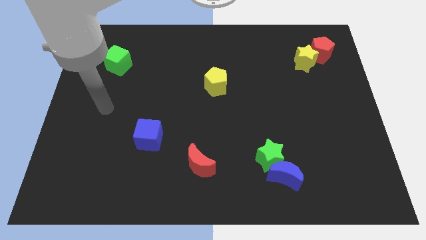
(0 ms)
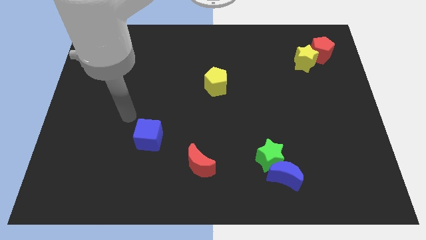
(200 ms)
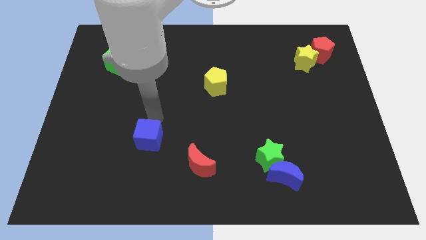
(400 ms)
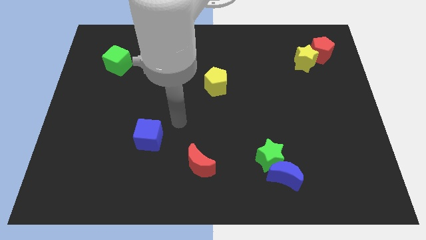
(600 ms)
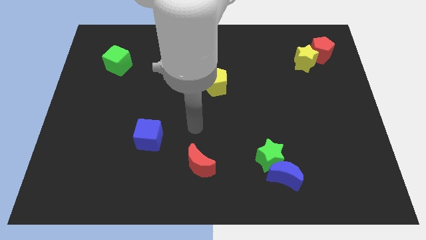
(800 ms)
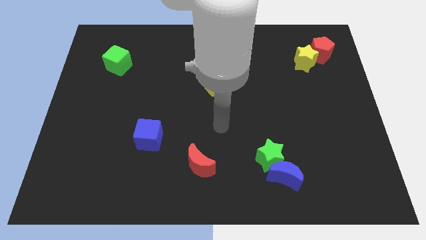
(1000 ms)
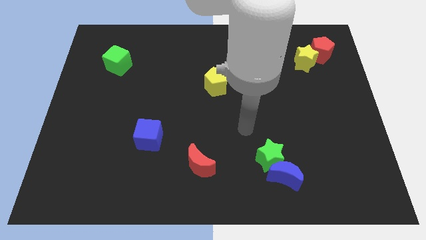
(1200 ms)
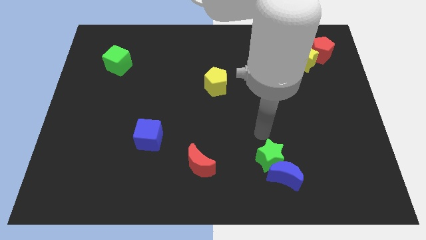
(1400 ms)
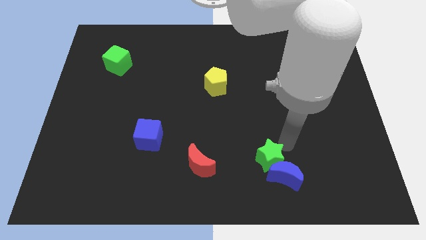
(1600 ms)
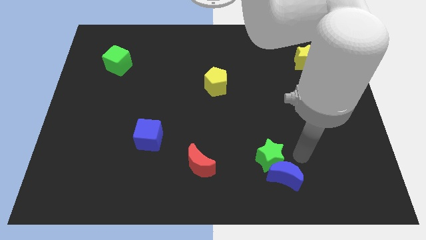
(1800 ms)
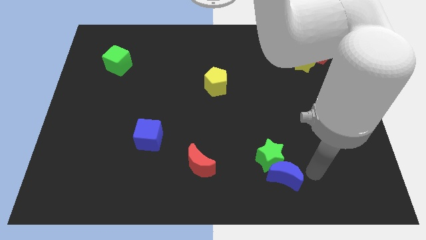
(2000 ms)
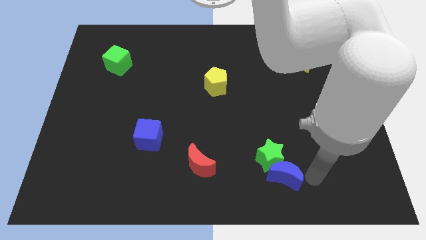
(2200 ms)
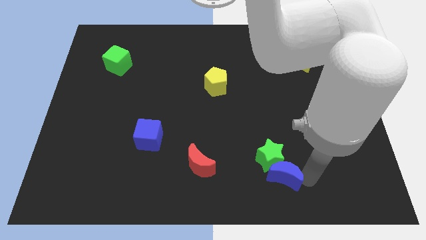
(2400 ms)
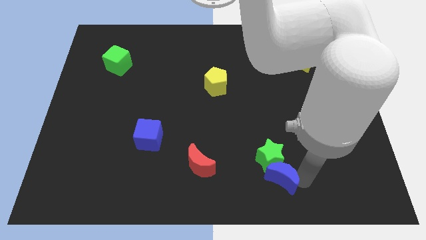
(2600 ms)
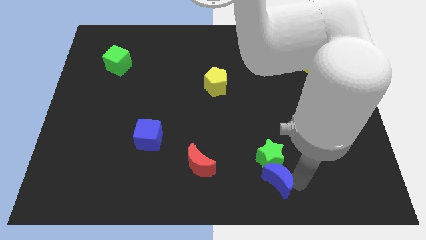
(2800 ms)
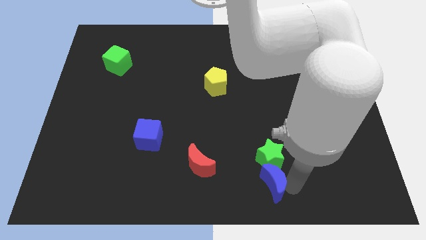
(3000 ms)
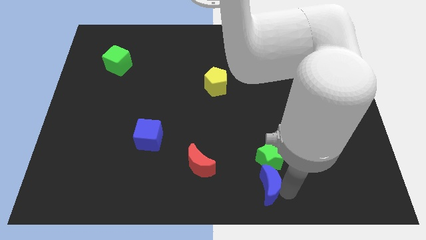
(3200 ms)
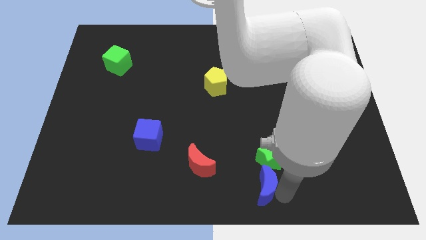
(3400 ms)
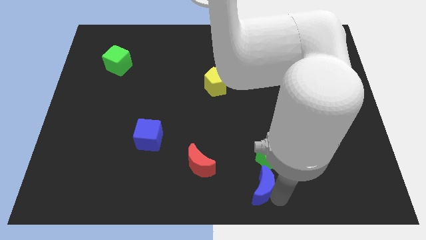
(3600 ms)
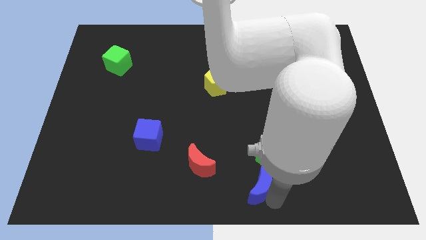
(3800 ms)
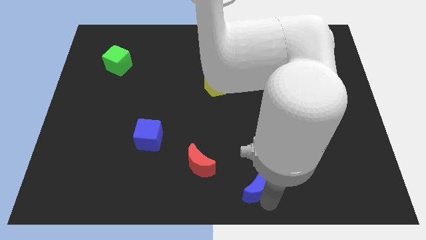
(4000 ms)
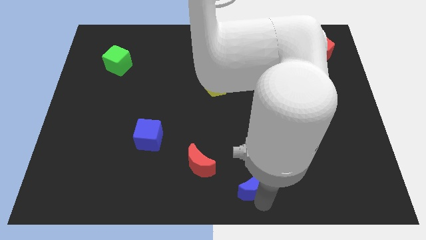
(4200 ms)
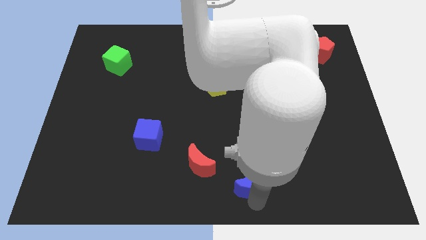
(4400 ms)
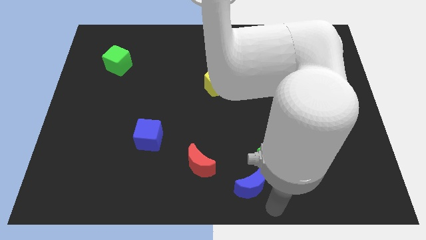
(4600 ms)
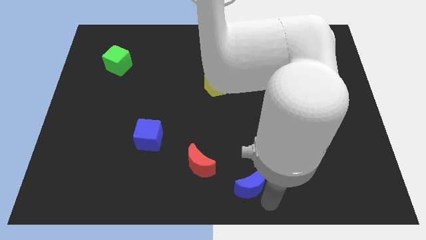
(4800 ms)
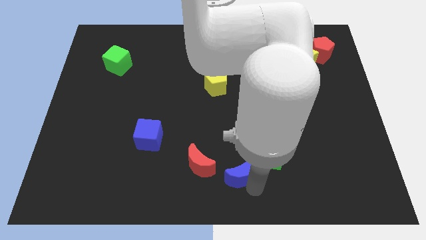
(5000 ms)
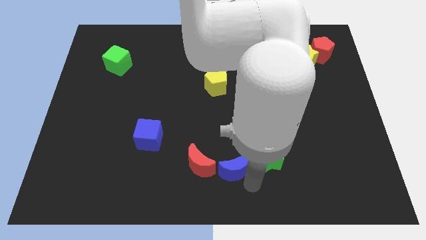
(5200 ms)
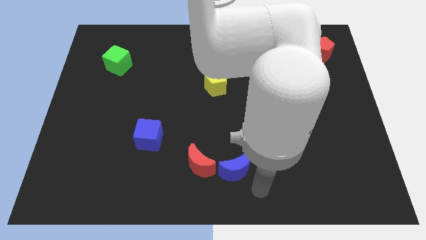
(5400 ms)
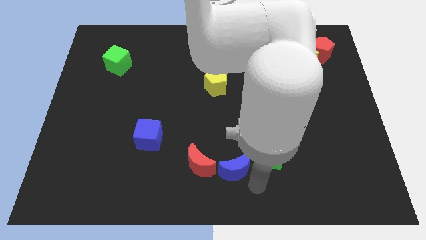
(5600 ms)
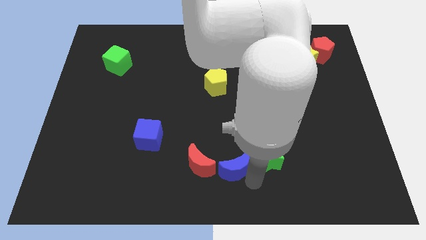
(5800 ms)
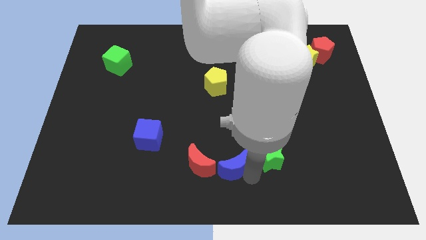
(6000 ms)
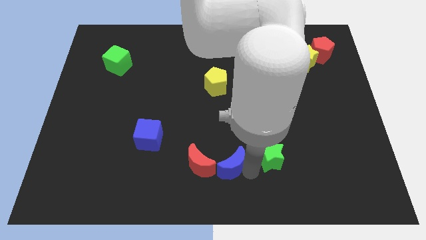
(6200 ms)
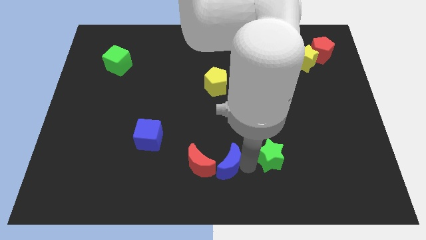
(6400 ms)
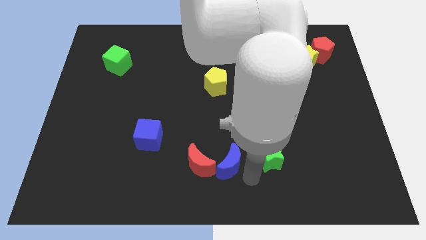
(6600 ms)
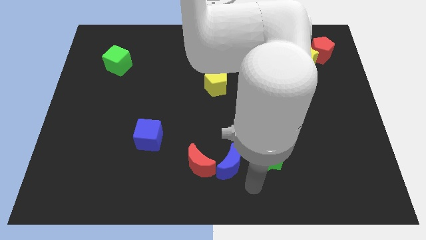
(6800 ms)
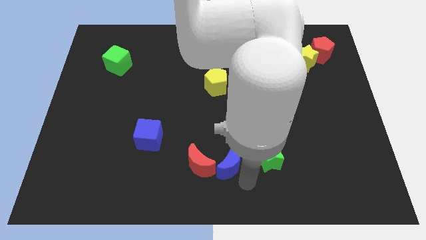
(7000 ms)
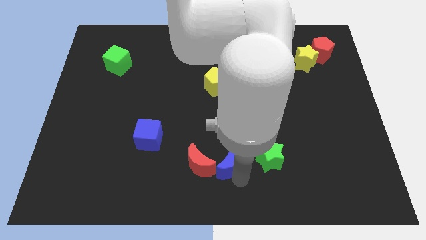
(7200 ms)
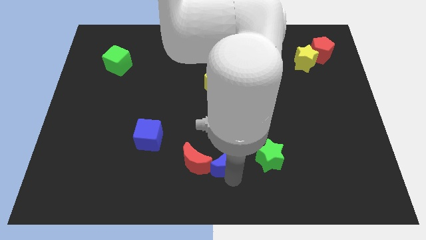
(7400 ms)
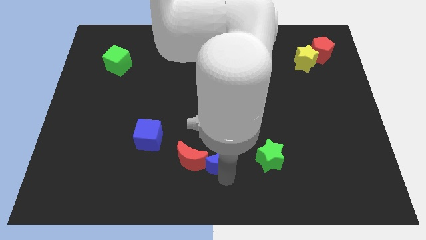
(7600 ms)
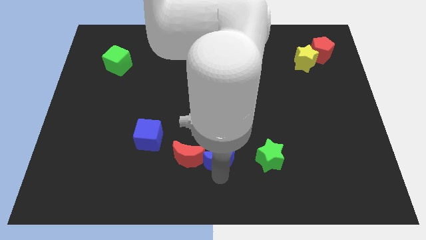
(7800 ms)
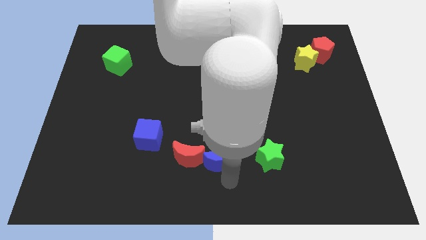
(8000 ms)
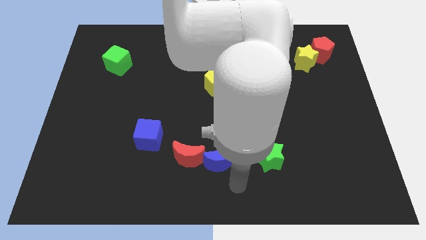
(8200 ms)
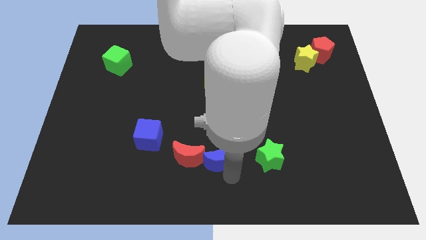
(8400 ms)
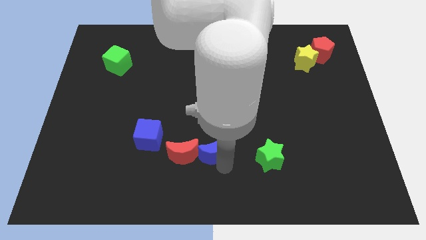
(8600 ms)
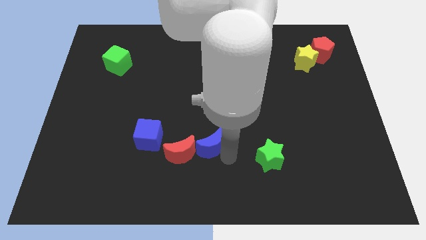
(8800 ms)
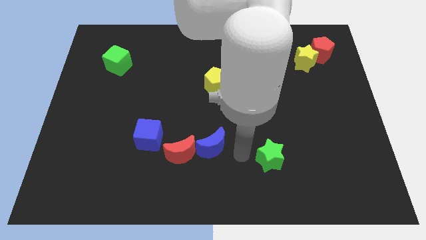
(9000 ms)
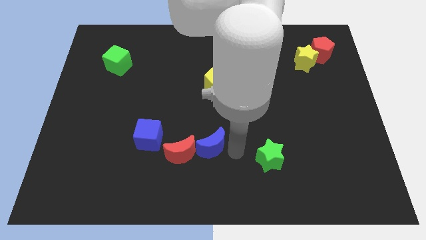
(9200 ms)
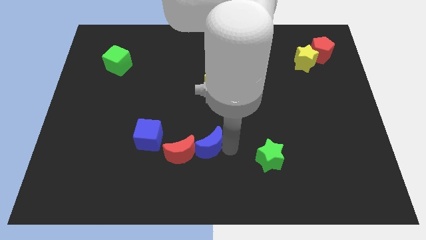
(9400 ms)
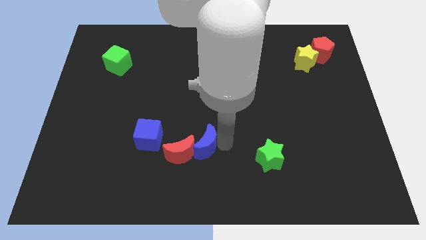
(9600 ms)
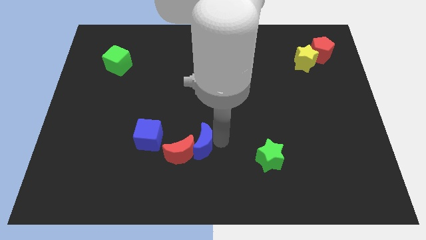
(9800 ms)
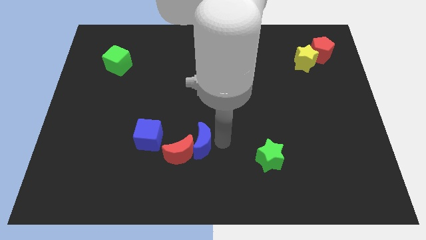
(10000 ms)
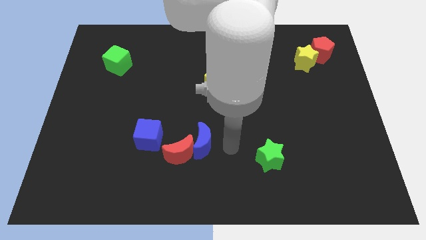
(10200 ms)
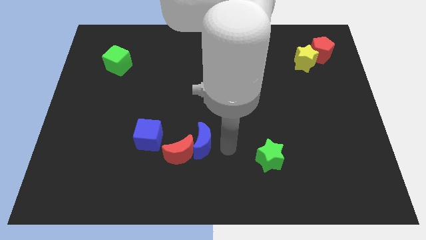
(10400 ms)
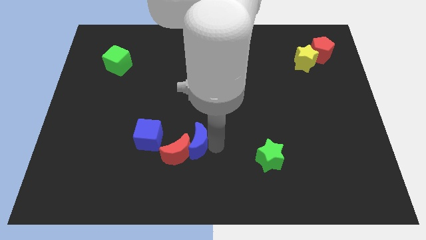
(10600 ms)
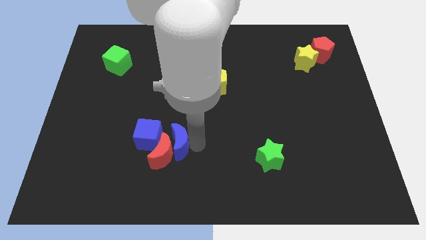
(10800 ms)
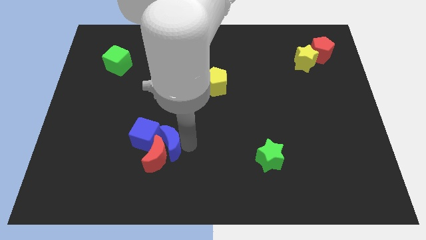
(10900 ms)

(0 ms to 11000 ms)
push the blue moon next to the blue cube

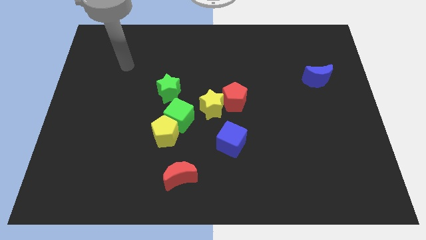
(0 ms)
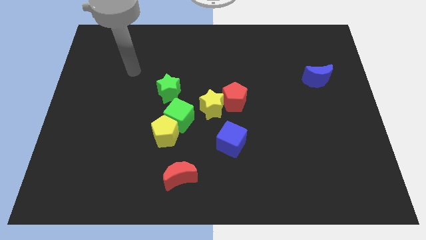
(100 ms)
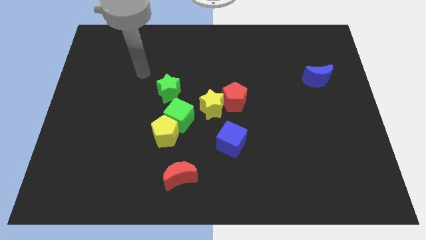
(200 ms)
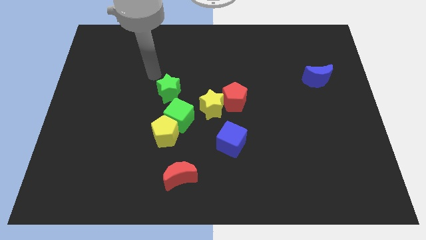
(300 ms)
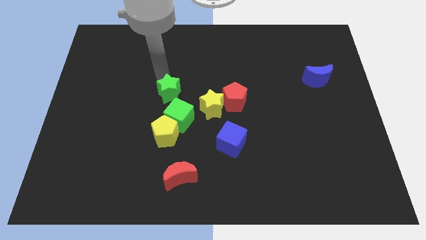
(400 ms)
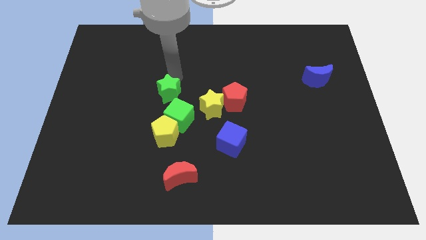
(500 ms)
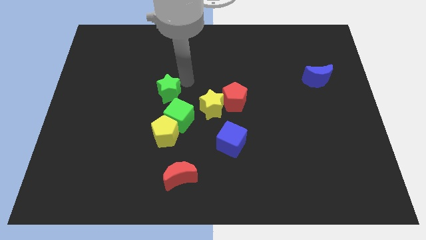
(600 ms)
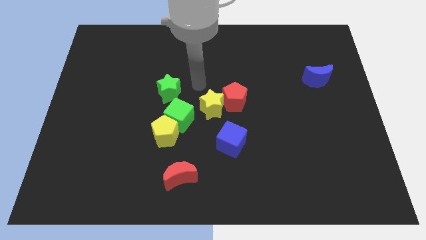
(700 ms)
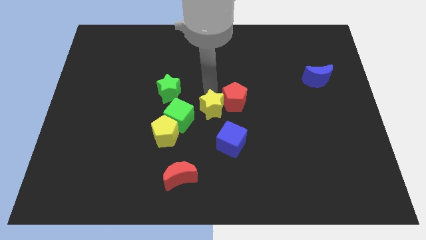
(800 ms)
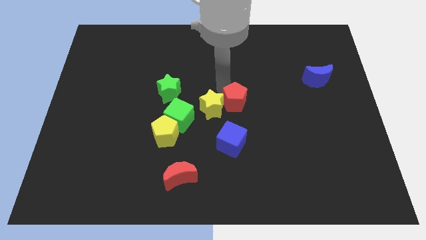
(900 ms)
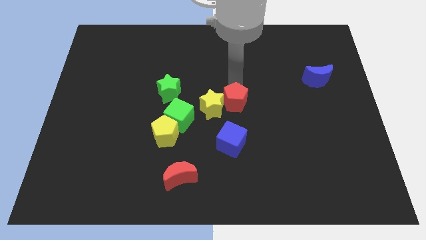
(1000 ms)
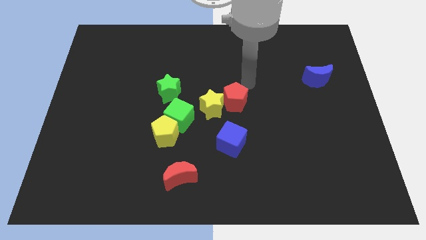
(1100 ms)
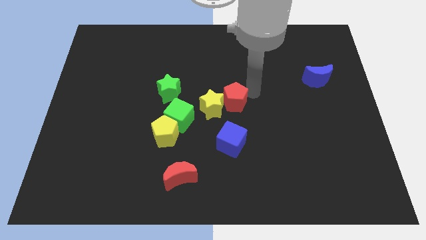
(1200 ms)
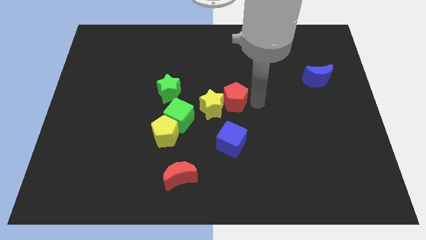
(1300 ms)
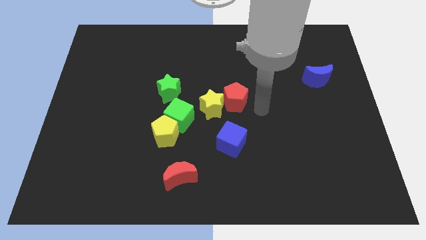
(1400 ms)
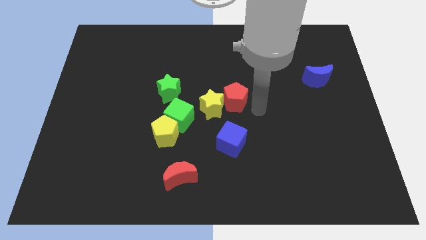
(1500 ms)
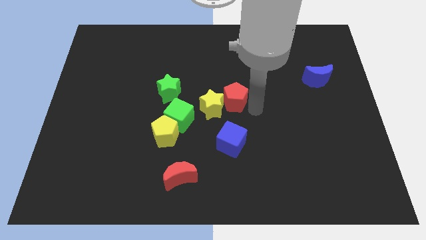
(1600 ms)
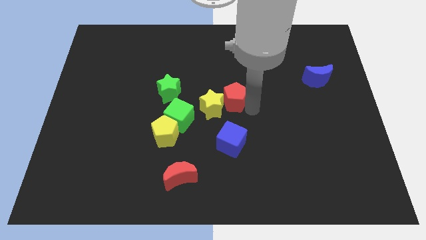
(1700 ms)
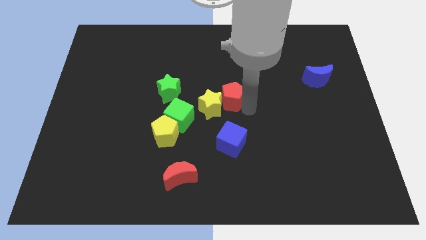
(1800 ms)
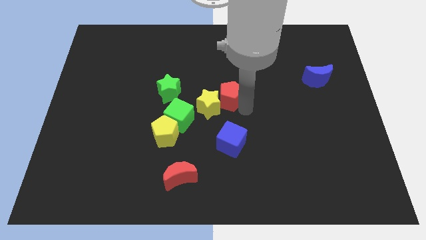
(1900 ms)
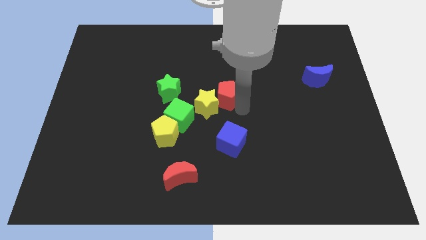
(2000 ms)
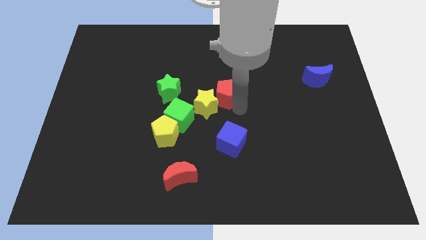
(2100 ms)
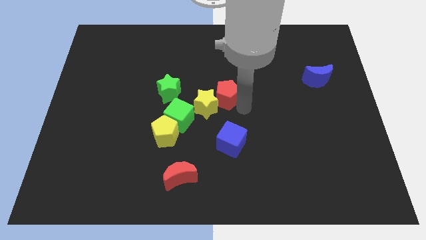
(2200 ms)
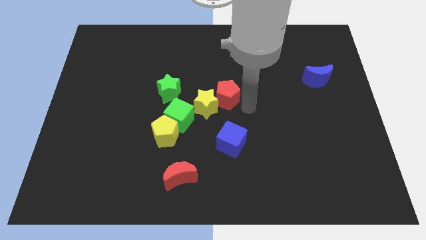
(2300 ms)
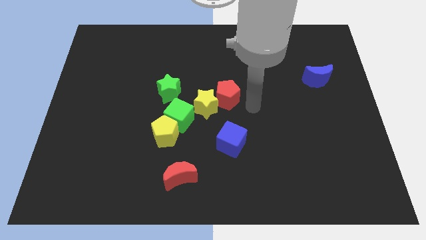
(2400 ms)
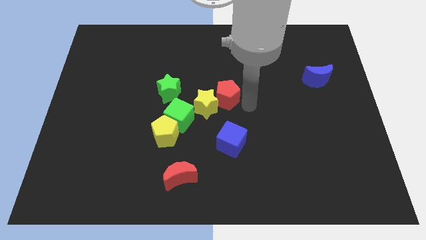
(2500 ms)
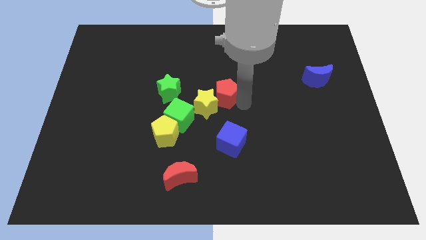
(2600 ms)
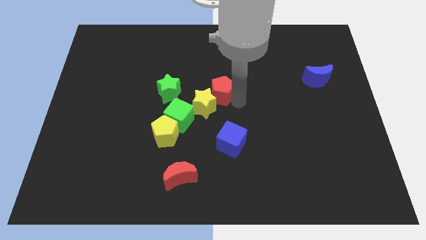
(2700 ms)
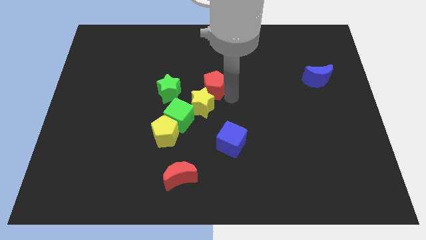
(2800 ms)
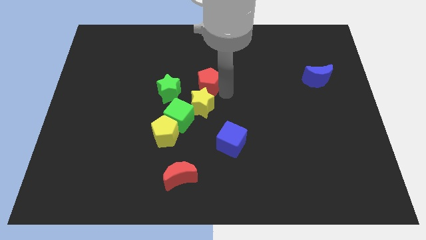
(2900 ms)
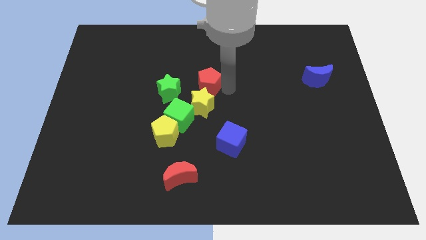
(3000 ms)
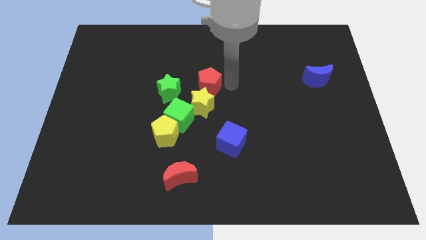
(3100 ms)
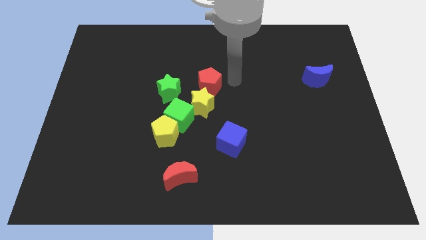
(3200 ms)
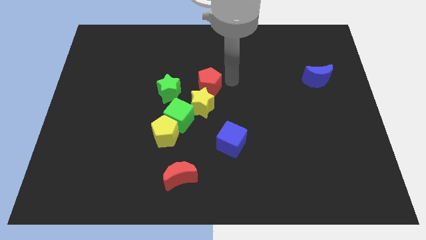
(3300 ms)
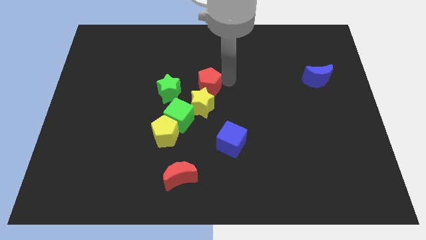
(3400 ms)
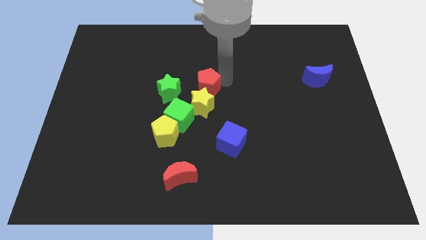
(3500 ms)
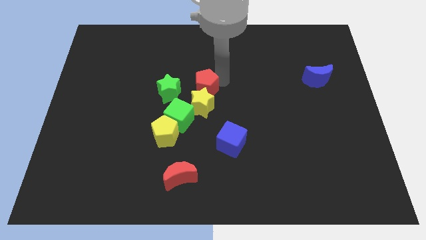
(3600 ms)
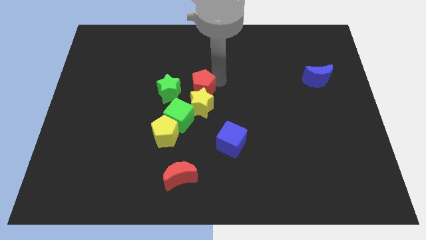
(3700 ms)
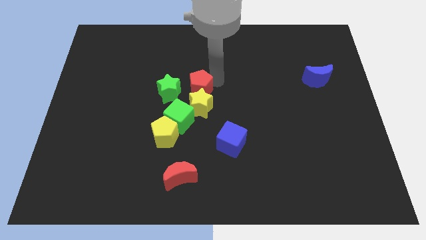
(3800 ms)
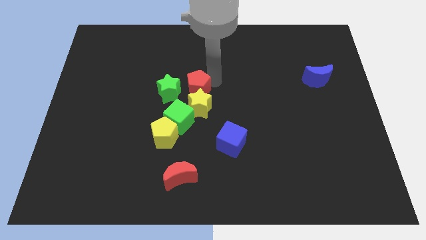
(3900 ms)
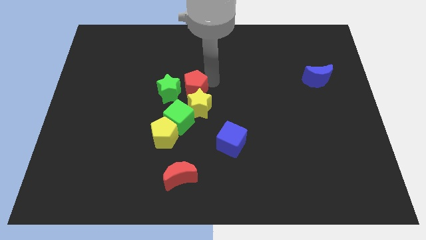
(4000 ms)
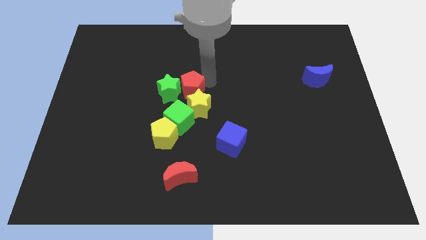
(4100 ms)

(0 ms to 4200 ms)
put the red pentagon next to the green star
